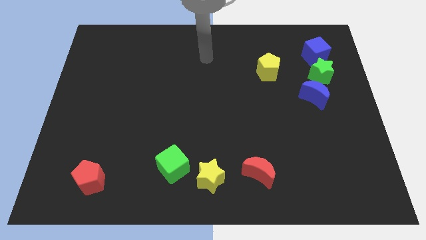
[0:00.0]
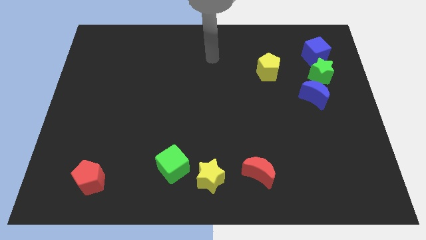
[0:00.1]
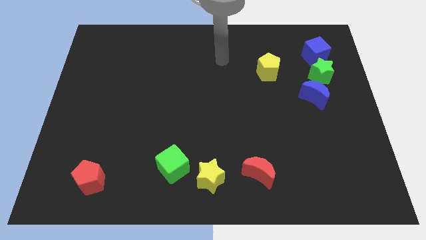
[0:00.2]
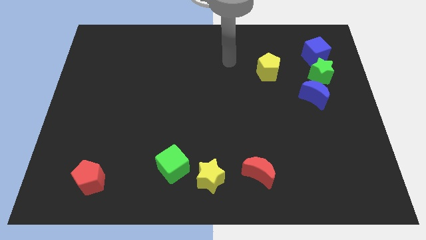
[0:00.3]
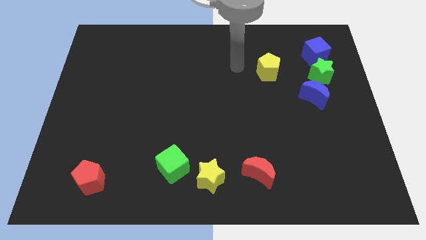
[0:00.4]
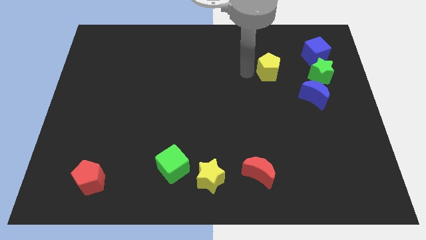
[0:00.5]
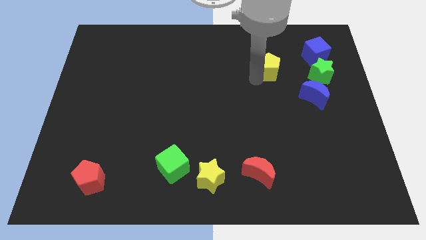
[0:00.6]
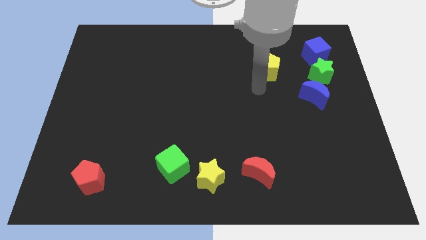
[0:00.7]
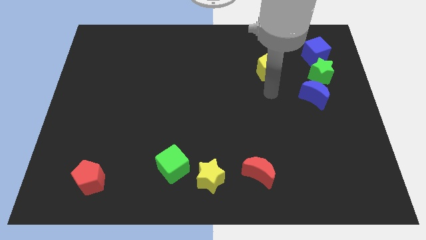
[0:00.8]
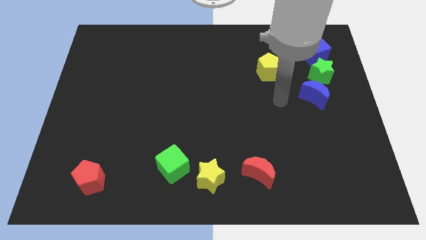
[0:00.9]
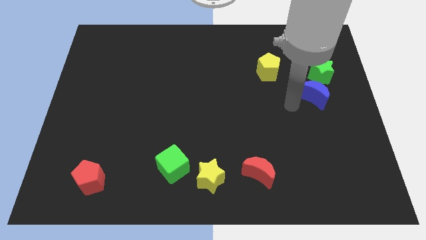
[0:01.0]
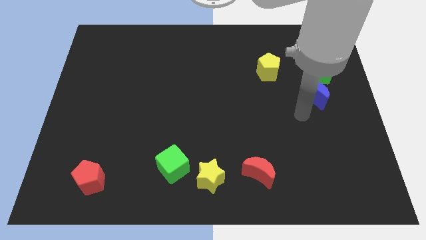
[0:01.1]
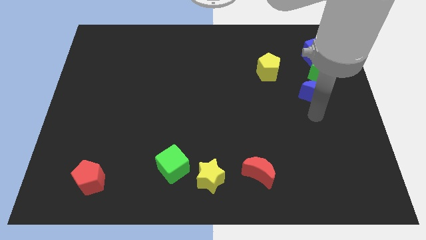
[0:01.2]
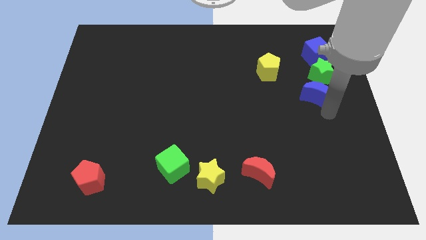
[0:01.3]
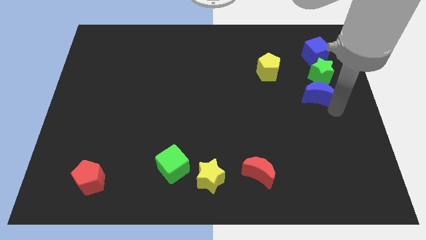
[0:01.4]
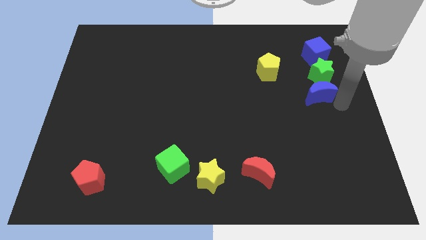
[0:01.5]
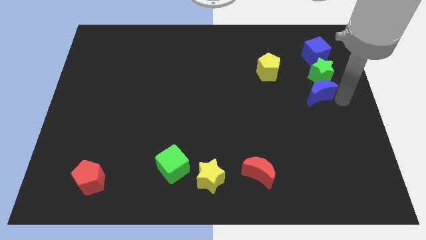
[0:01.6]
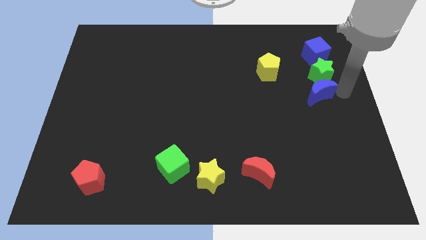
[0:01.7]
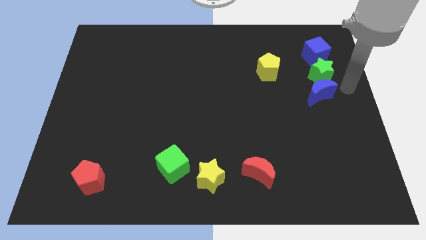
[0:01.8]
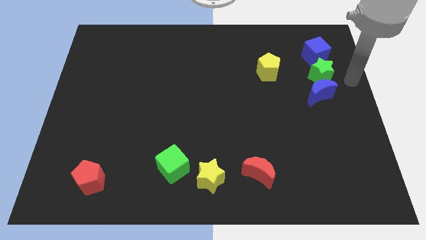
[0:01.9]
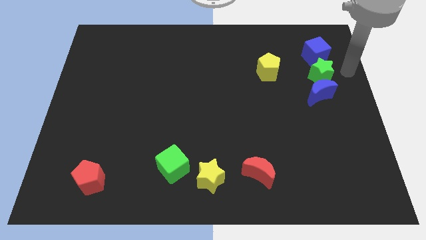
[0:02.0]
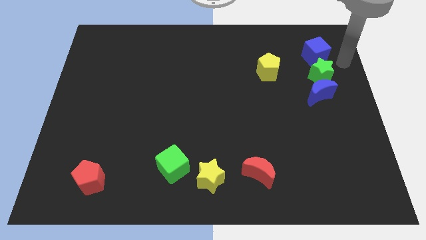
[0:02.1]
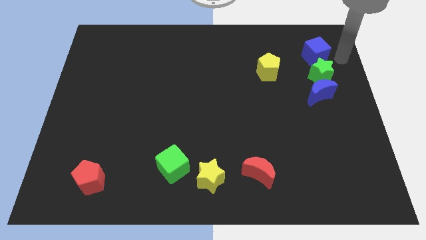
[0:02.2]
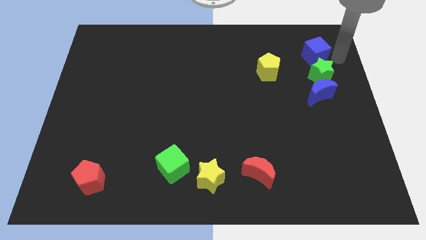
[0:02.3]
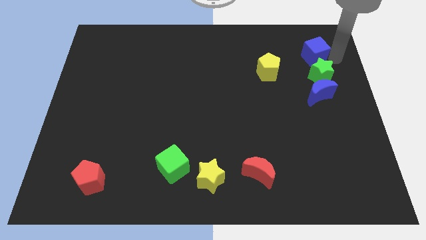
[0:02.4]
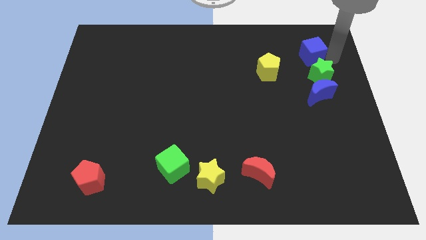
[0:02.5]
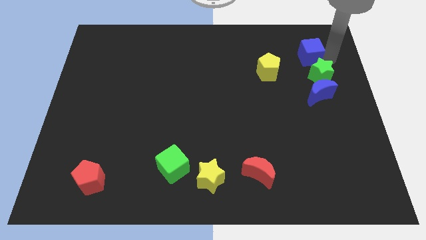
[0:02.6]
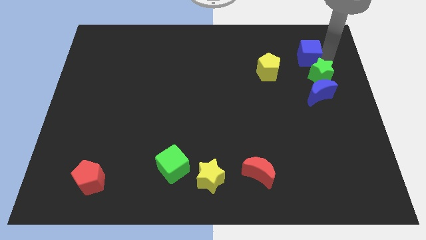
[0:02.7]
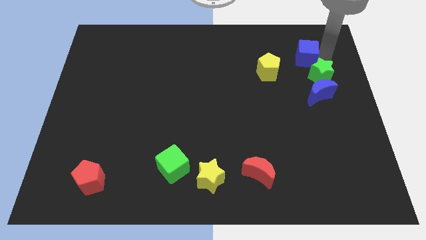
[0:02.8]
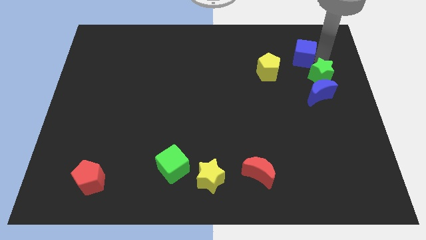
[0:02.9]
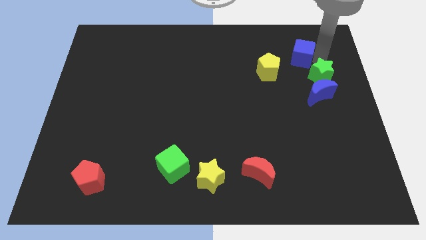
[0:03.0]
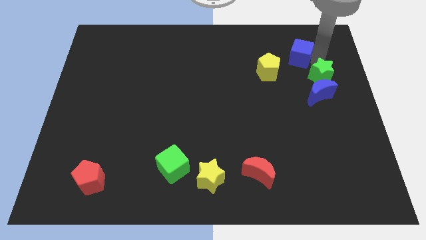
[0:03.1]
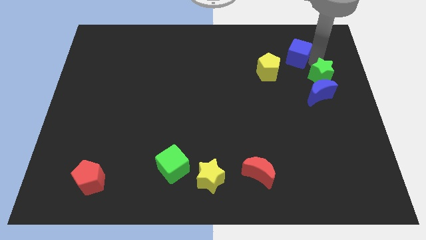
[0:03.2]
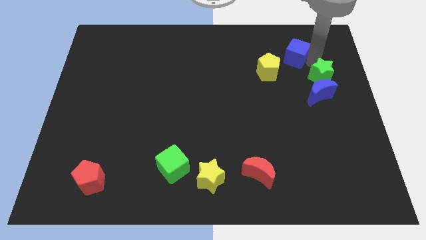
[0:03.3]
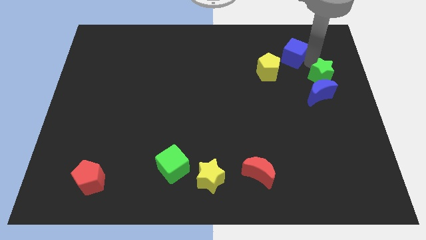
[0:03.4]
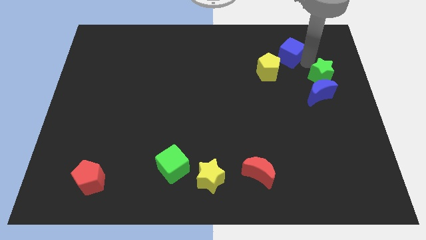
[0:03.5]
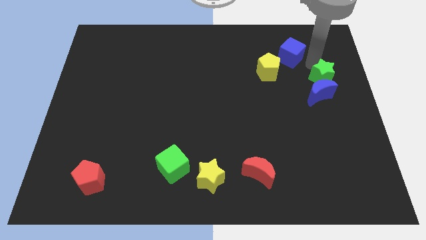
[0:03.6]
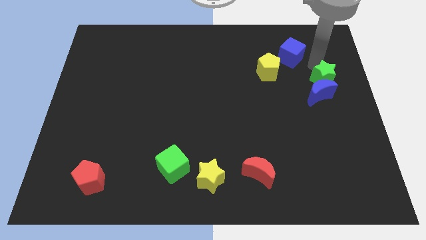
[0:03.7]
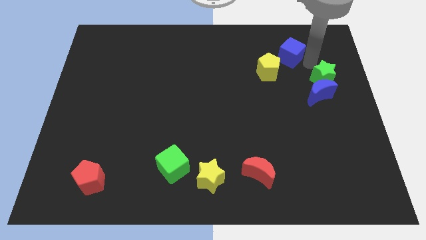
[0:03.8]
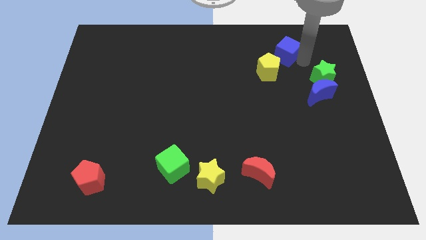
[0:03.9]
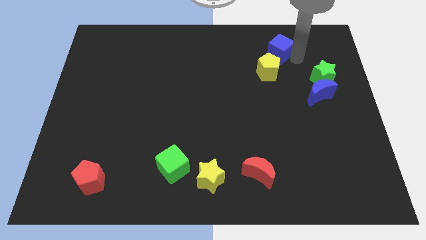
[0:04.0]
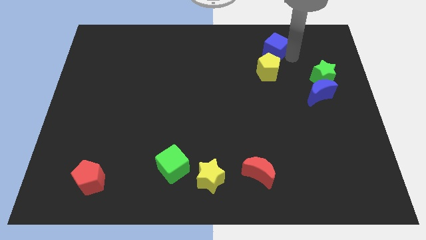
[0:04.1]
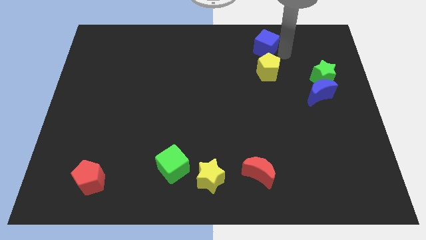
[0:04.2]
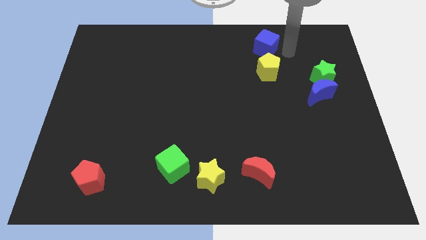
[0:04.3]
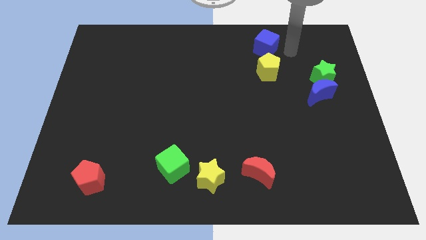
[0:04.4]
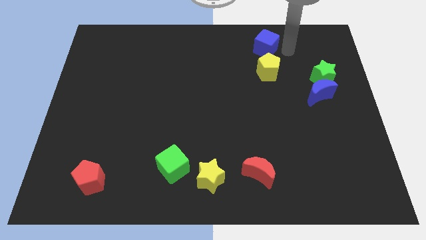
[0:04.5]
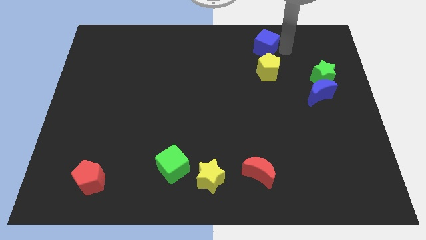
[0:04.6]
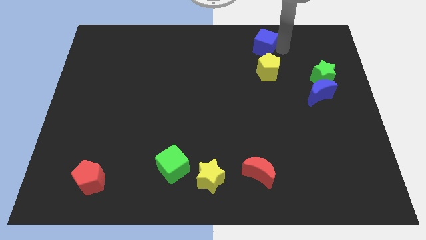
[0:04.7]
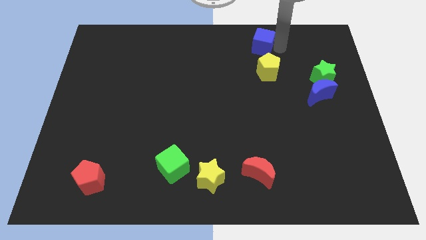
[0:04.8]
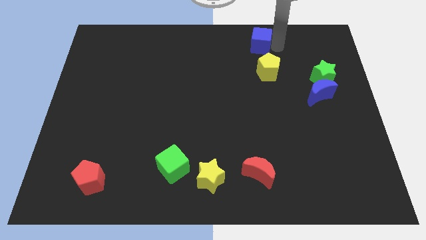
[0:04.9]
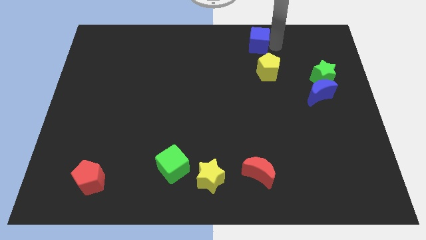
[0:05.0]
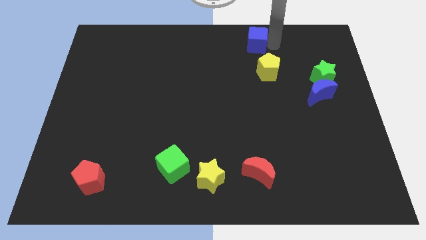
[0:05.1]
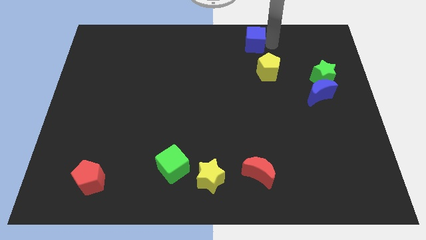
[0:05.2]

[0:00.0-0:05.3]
slide the blue cube to the towards your base

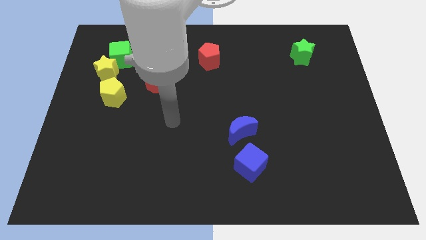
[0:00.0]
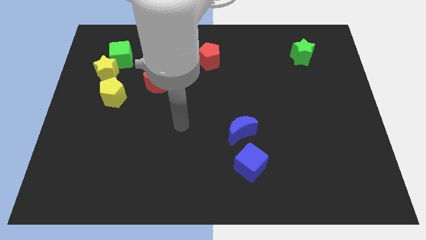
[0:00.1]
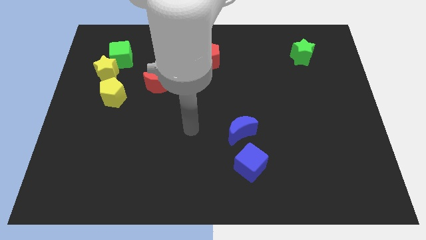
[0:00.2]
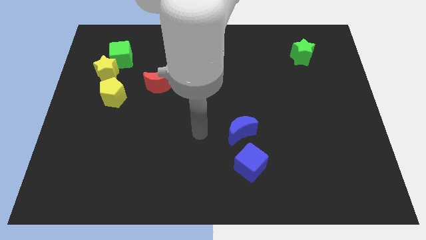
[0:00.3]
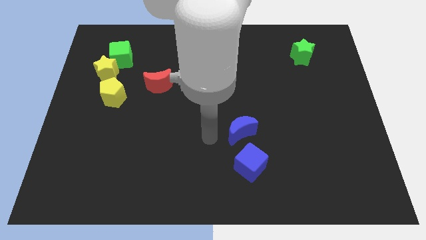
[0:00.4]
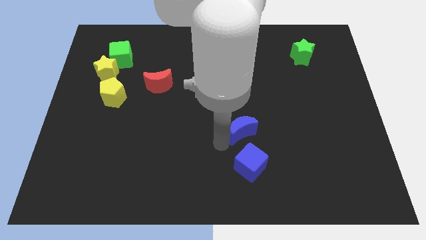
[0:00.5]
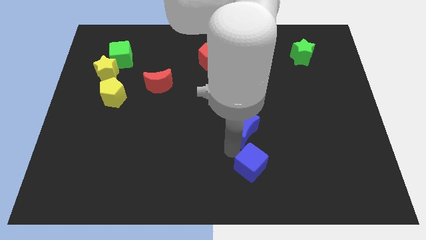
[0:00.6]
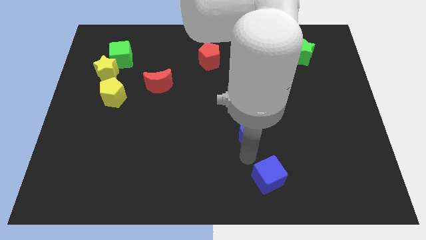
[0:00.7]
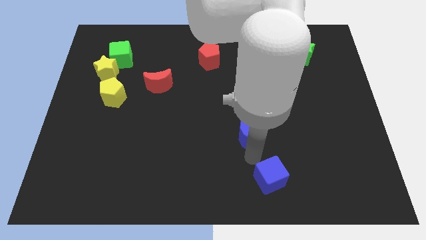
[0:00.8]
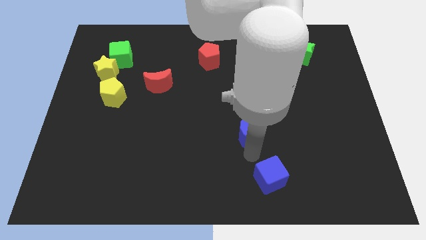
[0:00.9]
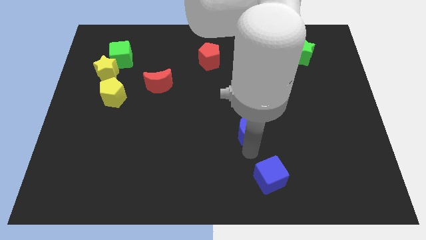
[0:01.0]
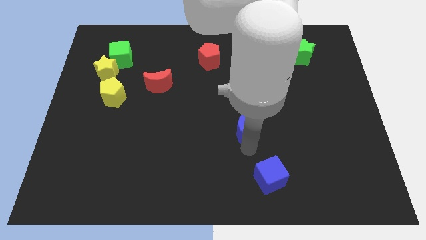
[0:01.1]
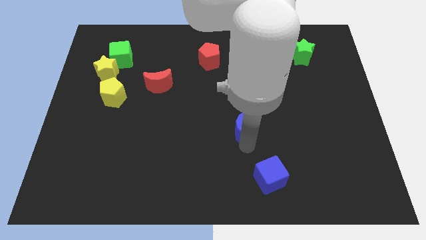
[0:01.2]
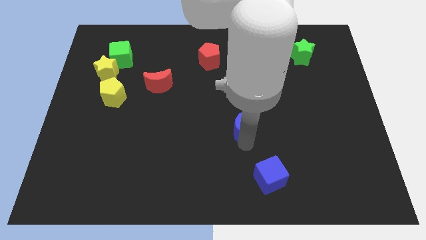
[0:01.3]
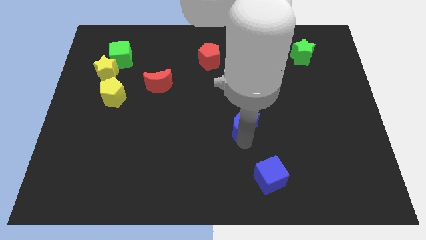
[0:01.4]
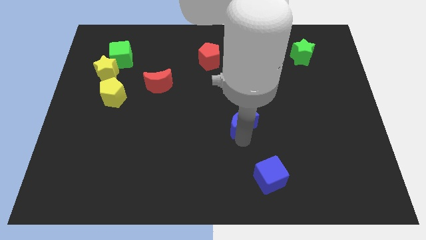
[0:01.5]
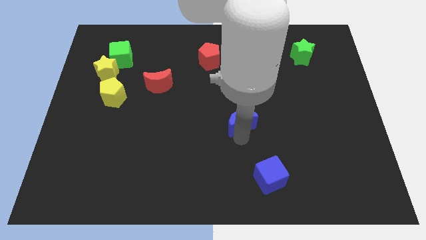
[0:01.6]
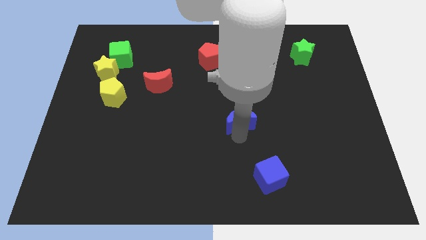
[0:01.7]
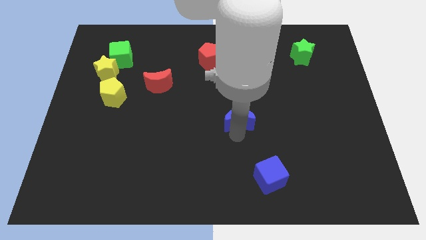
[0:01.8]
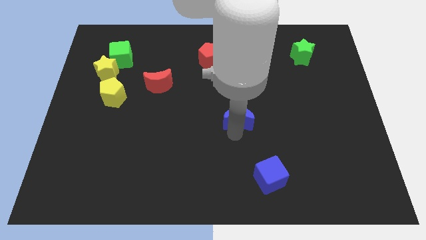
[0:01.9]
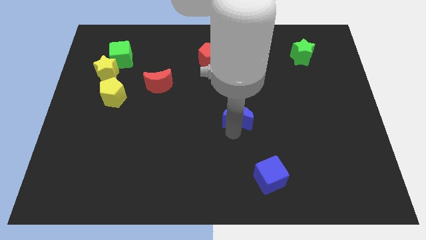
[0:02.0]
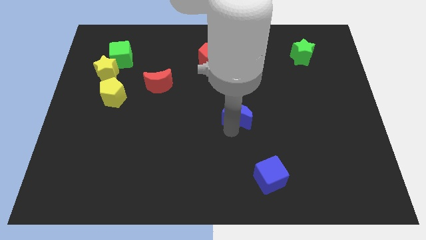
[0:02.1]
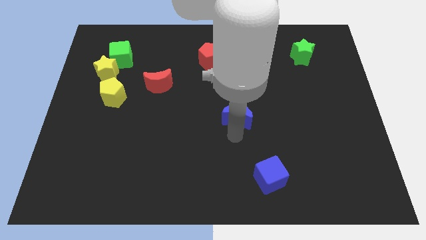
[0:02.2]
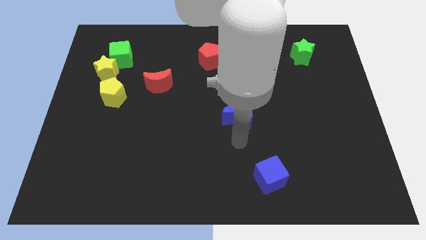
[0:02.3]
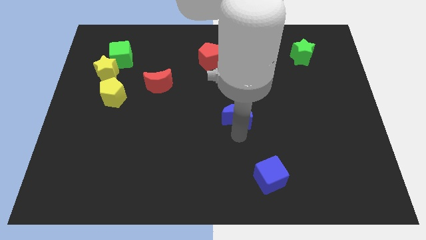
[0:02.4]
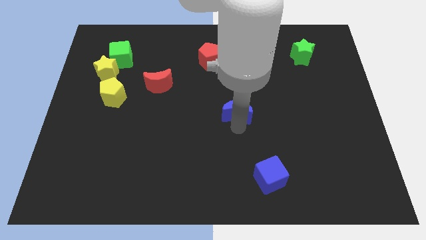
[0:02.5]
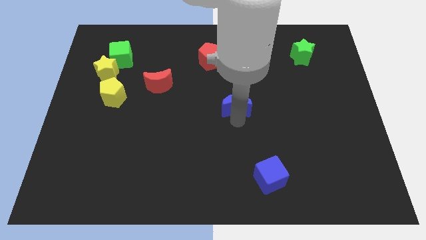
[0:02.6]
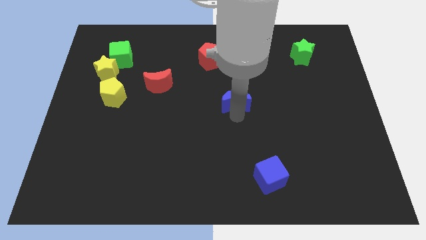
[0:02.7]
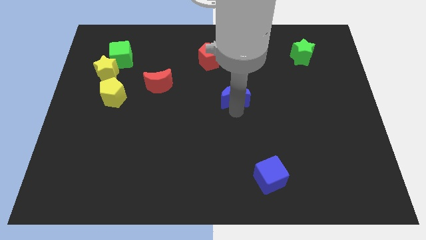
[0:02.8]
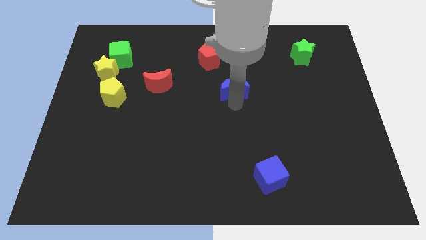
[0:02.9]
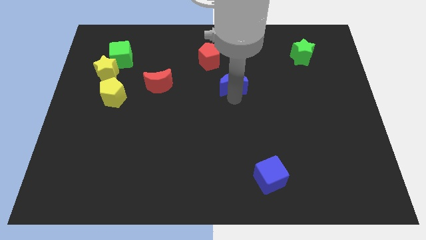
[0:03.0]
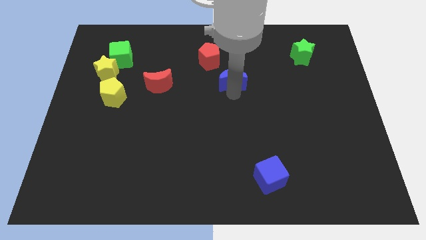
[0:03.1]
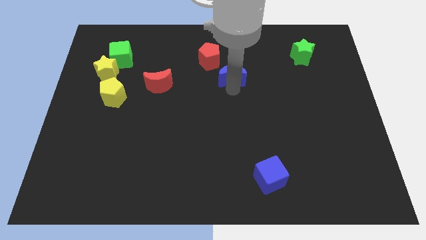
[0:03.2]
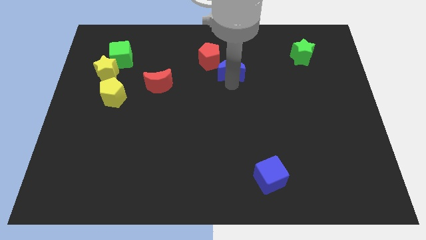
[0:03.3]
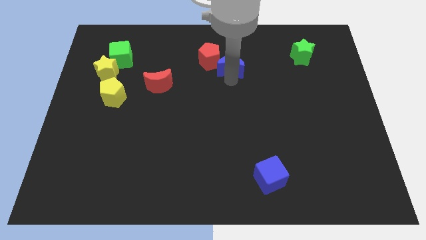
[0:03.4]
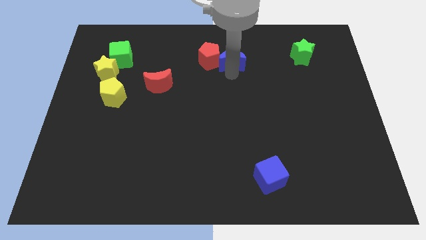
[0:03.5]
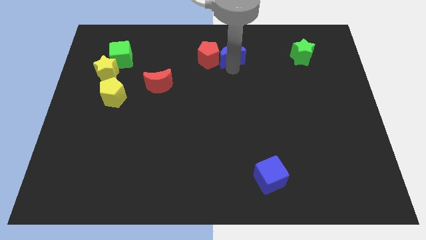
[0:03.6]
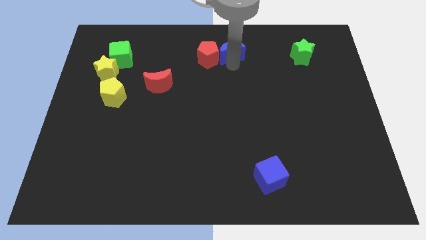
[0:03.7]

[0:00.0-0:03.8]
move the blue moon to the top side
